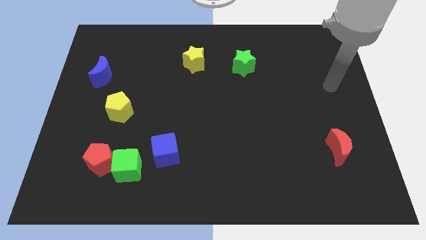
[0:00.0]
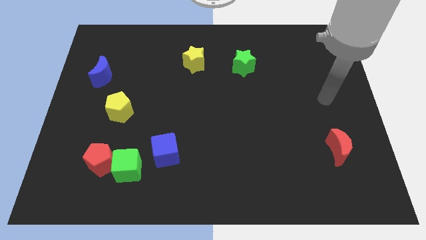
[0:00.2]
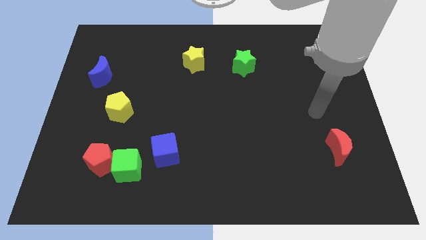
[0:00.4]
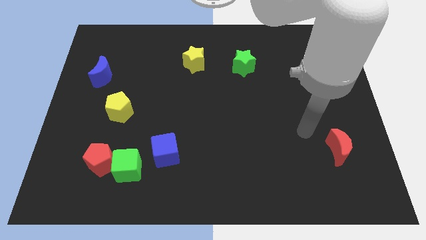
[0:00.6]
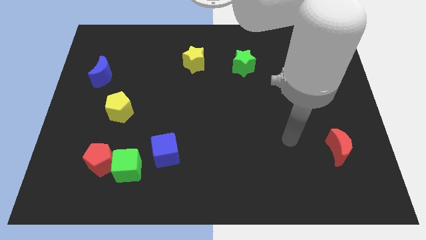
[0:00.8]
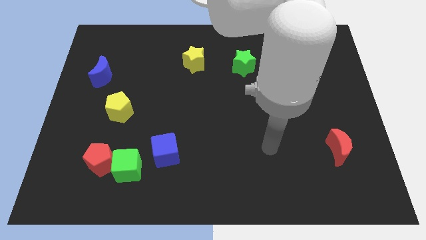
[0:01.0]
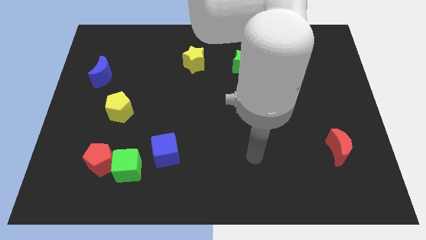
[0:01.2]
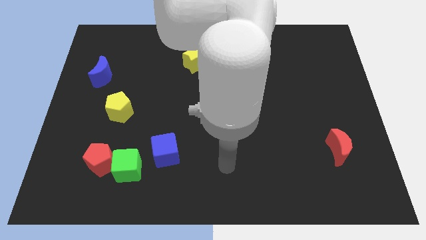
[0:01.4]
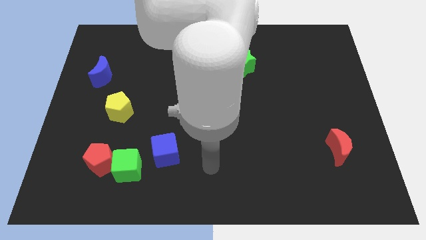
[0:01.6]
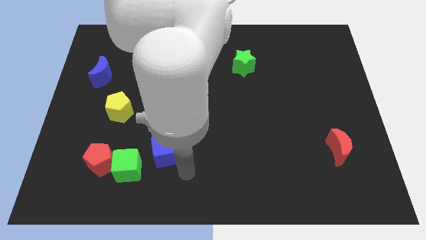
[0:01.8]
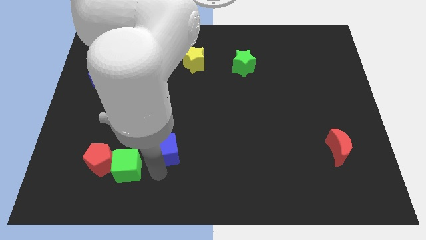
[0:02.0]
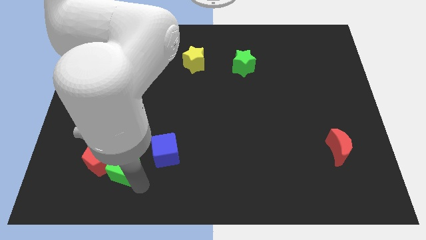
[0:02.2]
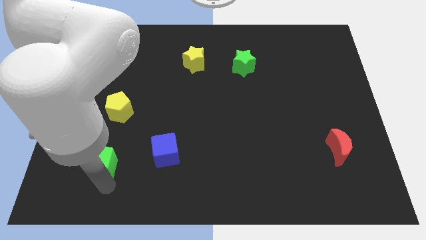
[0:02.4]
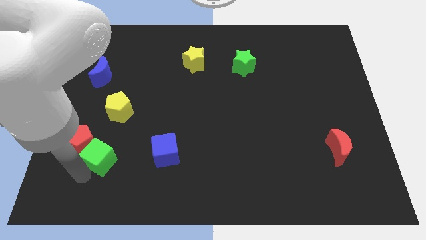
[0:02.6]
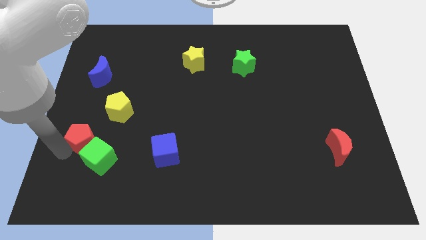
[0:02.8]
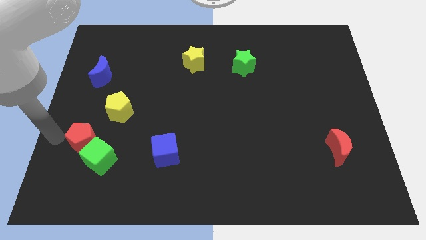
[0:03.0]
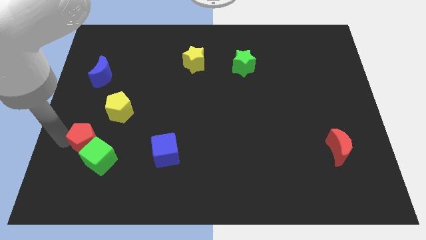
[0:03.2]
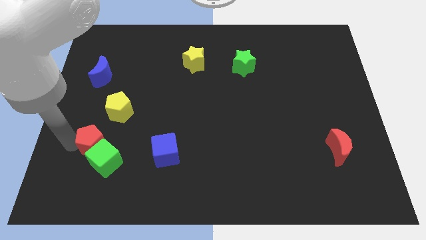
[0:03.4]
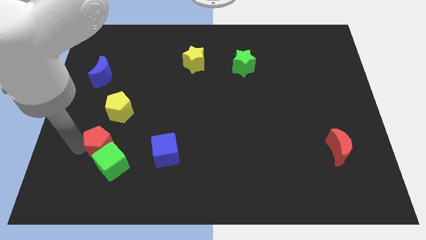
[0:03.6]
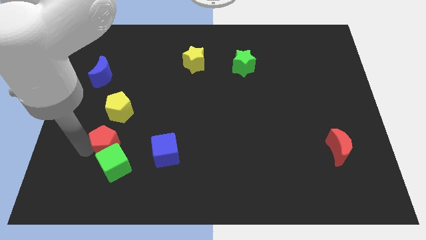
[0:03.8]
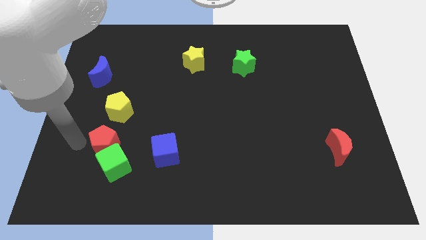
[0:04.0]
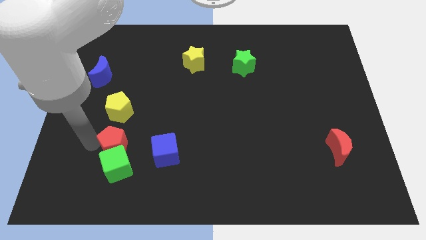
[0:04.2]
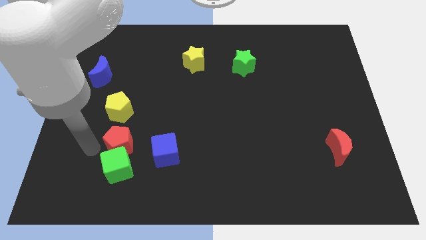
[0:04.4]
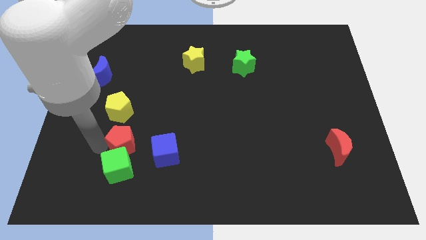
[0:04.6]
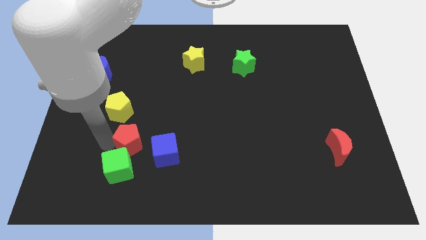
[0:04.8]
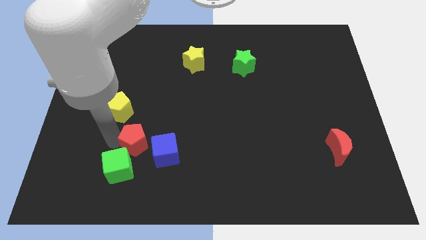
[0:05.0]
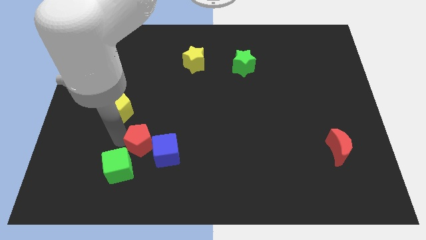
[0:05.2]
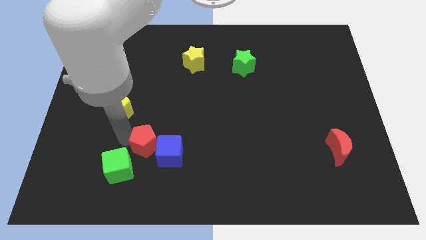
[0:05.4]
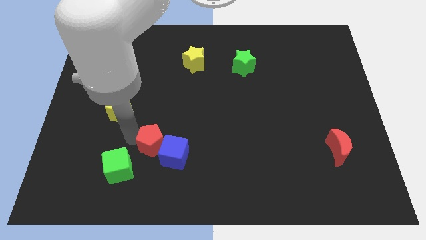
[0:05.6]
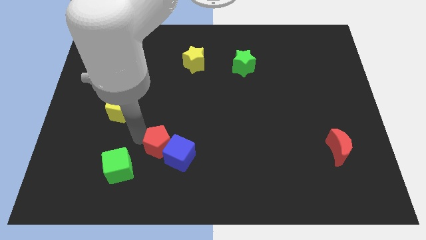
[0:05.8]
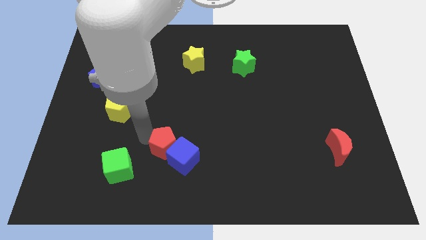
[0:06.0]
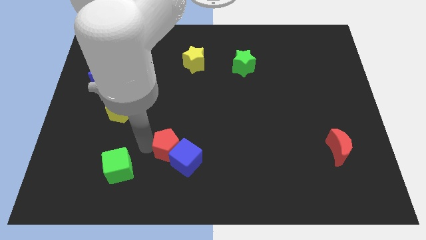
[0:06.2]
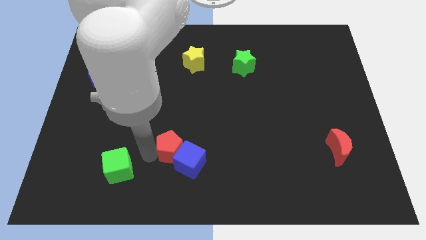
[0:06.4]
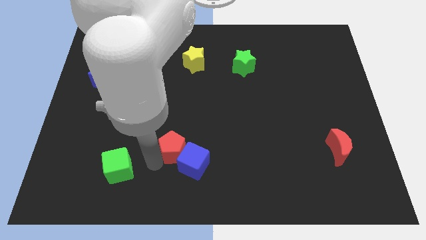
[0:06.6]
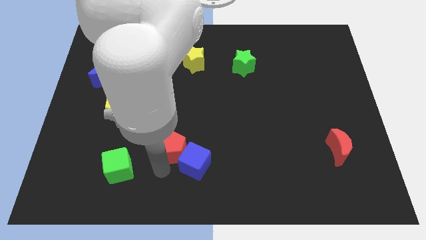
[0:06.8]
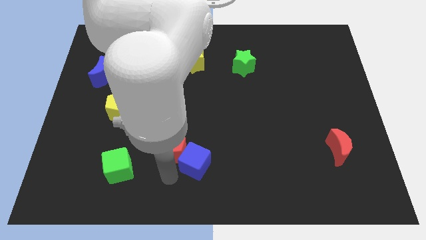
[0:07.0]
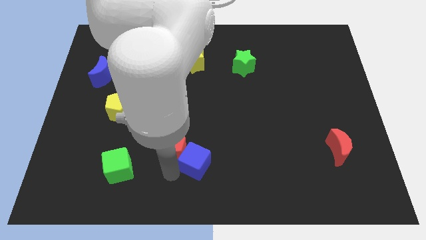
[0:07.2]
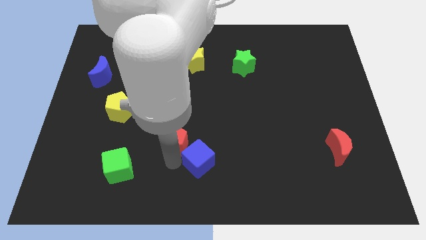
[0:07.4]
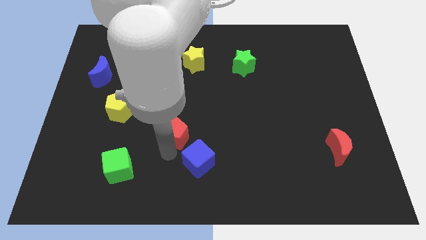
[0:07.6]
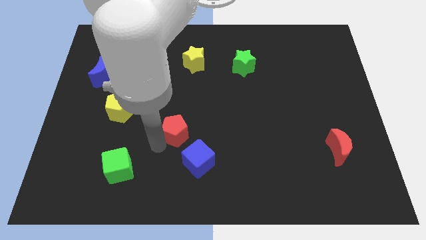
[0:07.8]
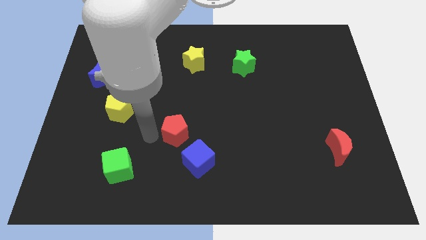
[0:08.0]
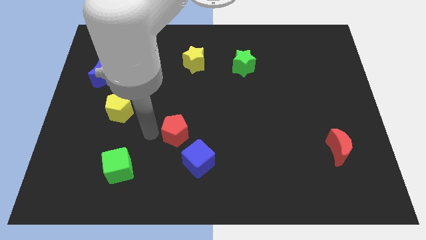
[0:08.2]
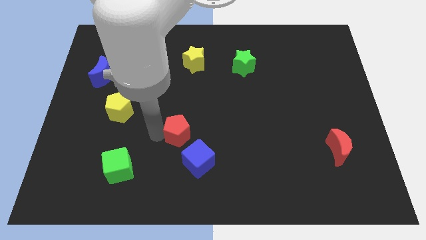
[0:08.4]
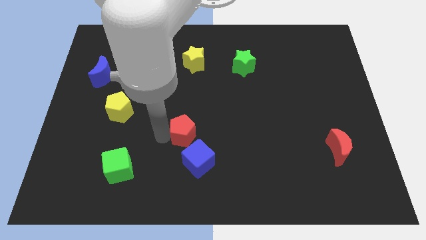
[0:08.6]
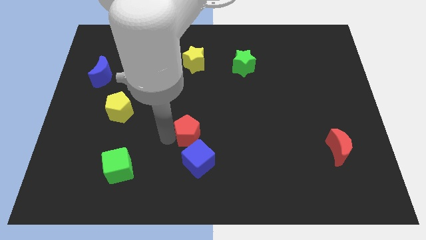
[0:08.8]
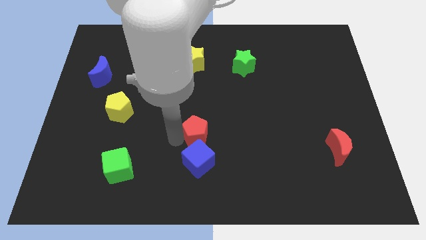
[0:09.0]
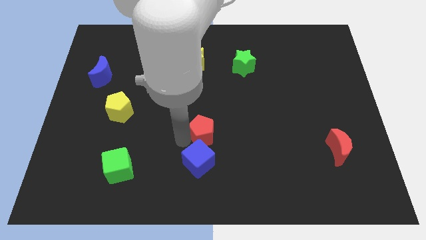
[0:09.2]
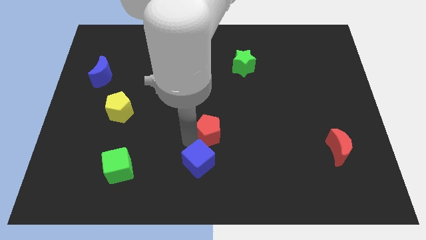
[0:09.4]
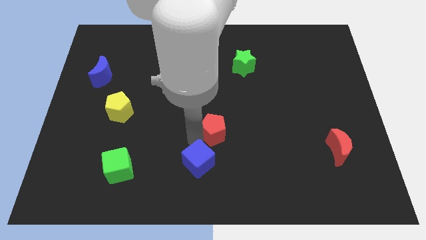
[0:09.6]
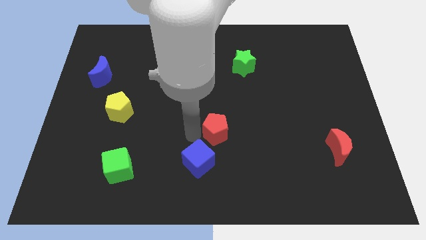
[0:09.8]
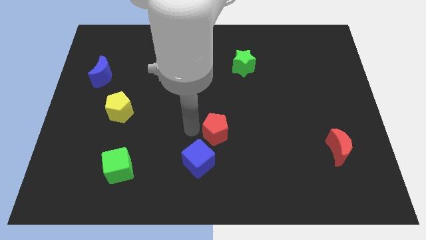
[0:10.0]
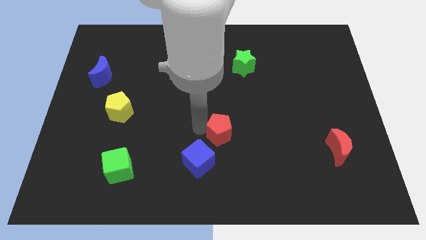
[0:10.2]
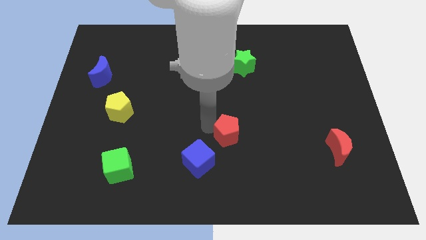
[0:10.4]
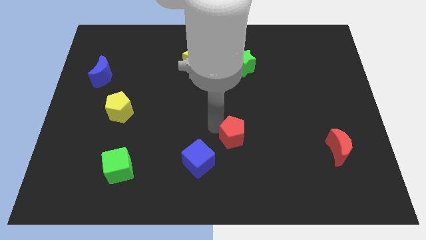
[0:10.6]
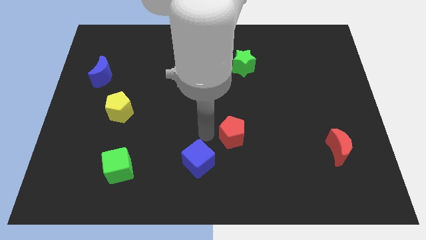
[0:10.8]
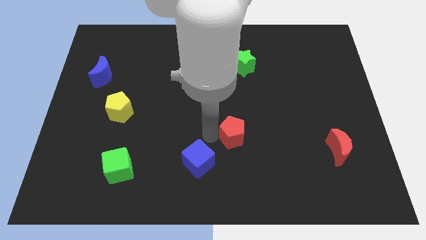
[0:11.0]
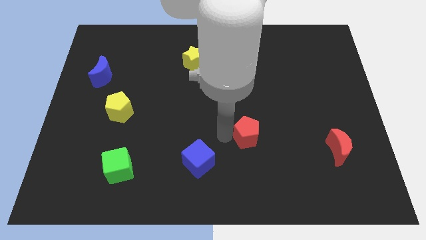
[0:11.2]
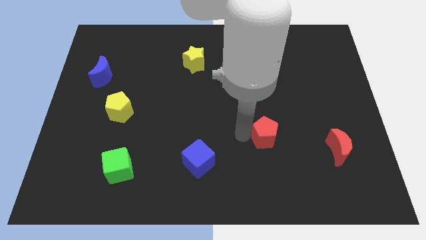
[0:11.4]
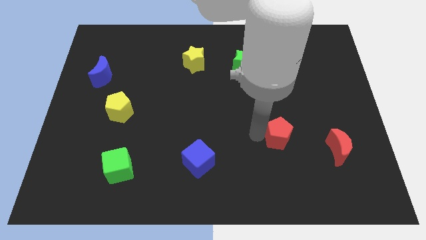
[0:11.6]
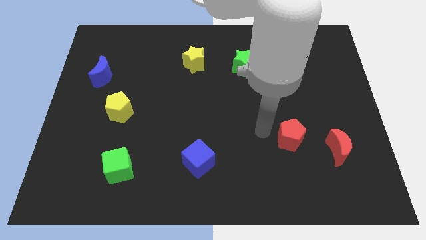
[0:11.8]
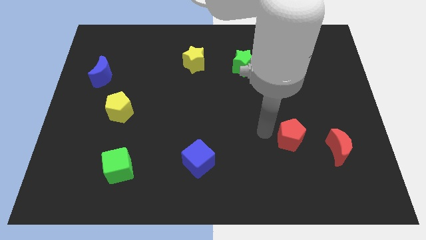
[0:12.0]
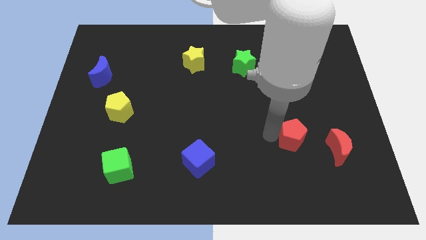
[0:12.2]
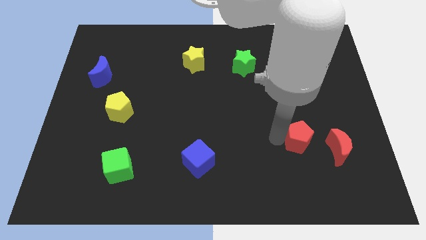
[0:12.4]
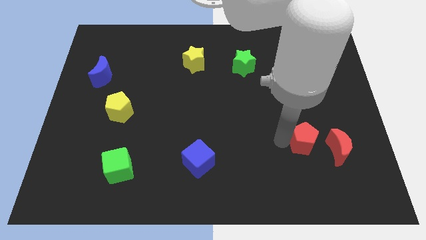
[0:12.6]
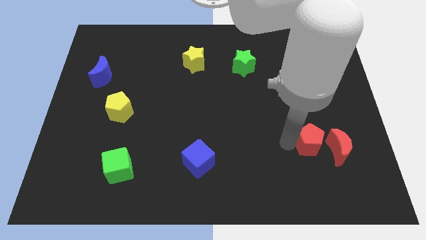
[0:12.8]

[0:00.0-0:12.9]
move the red pentagon next to the red moon
